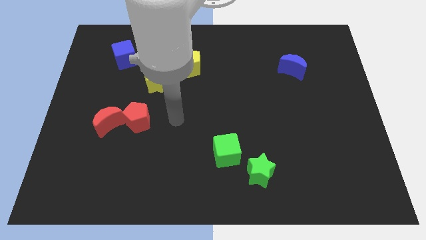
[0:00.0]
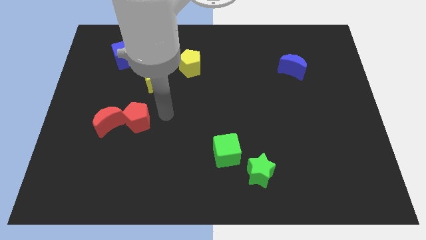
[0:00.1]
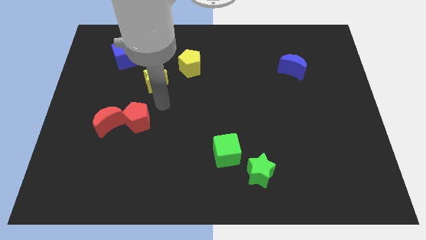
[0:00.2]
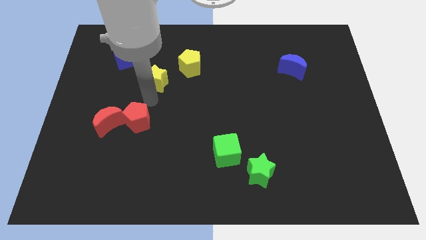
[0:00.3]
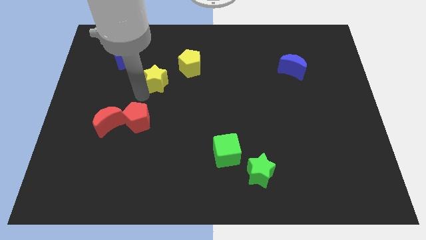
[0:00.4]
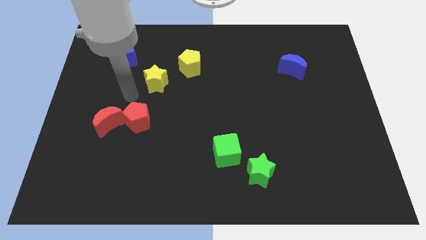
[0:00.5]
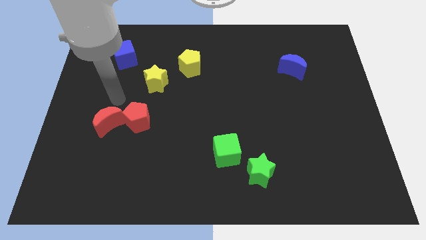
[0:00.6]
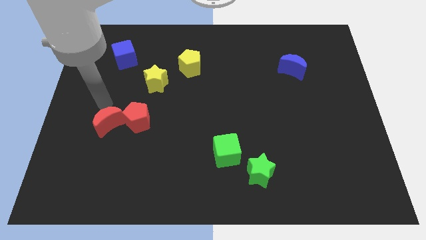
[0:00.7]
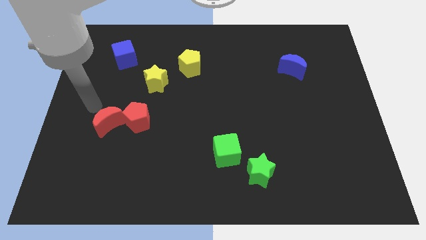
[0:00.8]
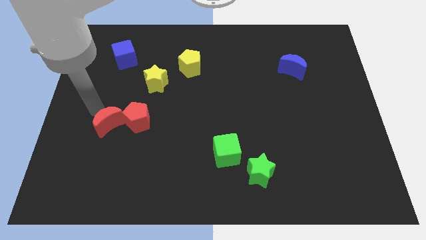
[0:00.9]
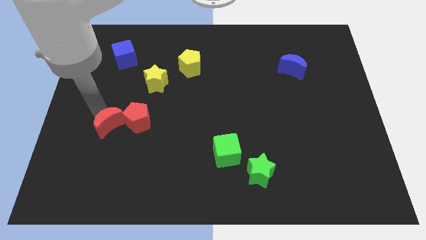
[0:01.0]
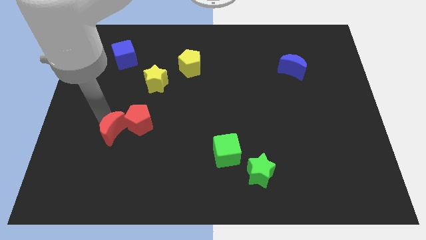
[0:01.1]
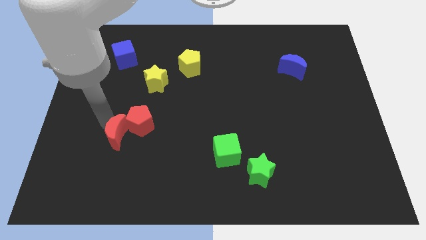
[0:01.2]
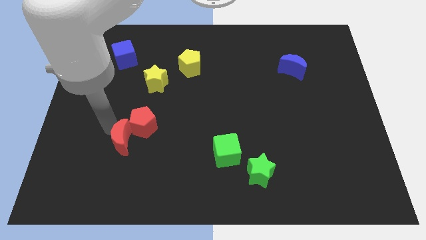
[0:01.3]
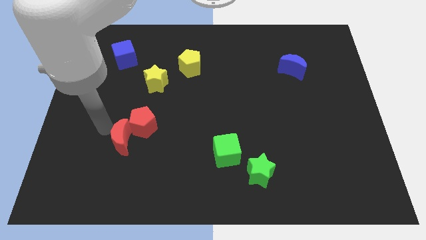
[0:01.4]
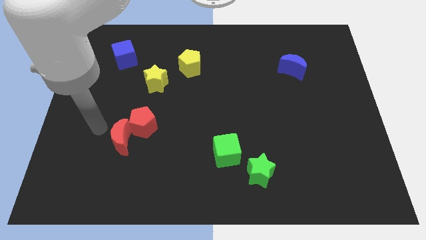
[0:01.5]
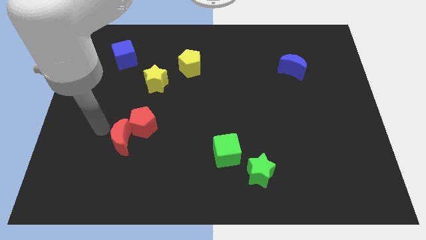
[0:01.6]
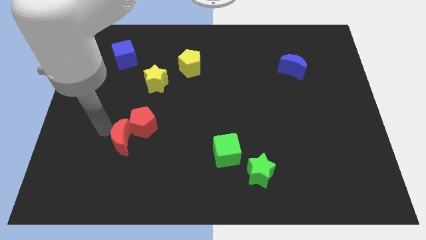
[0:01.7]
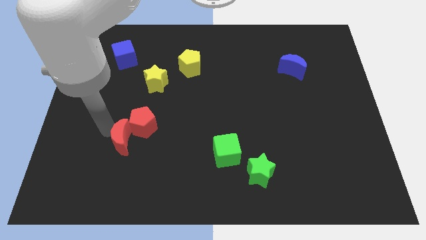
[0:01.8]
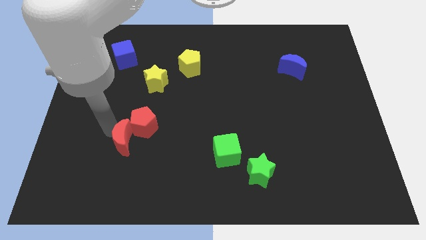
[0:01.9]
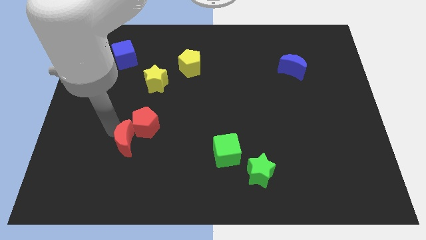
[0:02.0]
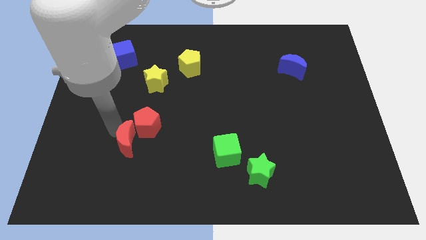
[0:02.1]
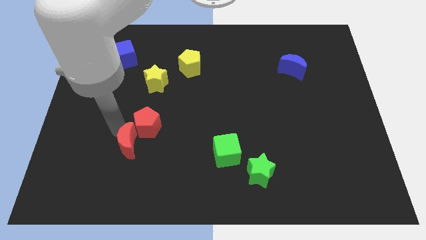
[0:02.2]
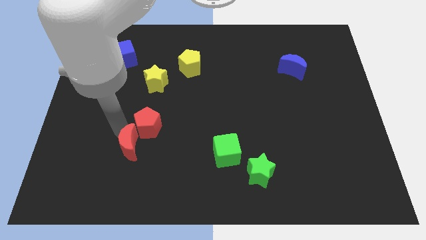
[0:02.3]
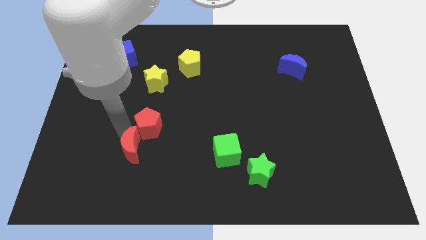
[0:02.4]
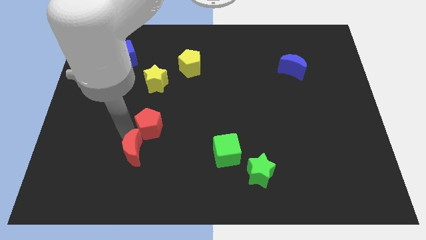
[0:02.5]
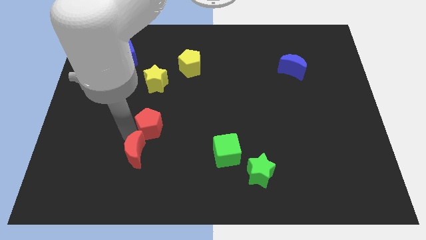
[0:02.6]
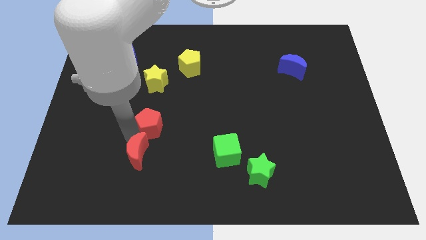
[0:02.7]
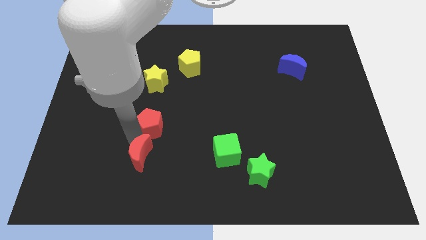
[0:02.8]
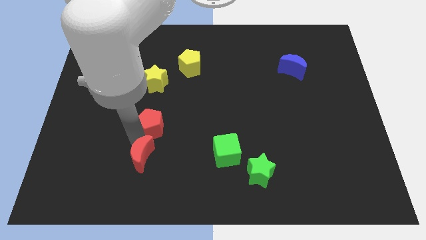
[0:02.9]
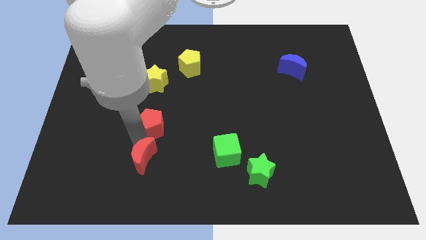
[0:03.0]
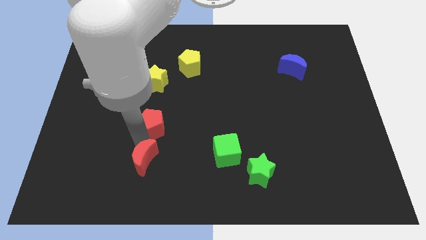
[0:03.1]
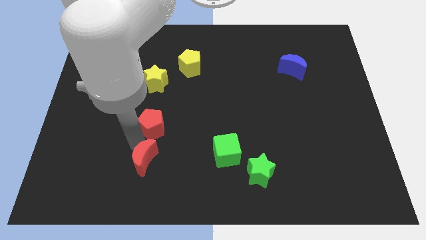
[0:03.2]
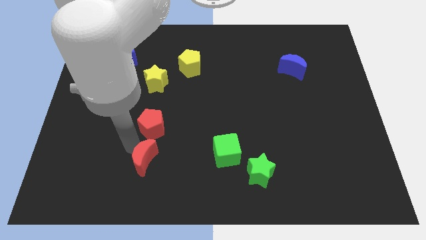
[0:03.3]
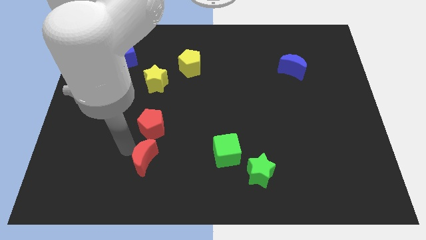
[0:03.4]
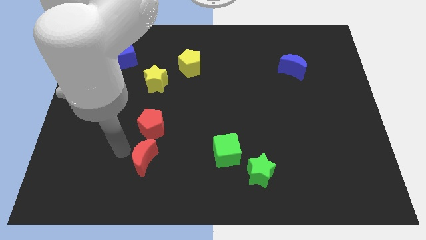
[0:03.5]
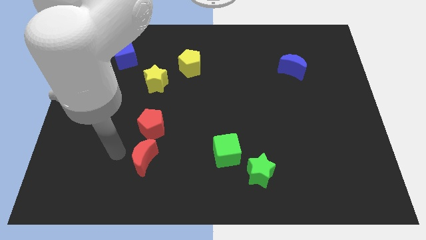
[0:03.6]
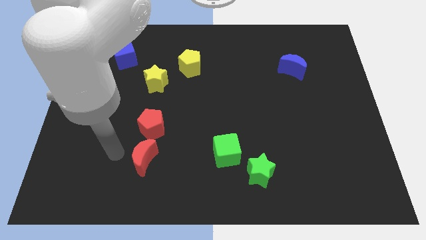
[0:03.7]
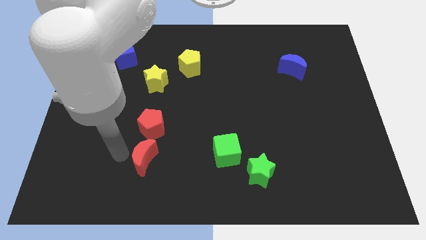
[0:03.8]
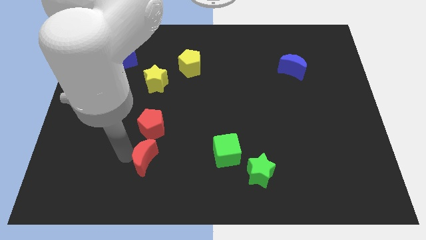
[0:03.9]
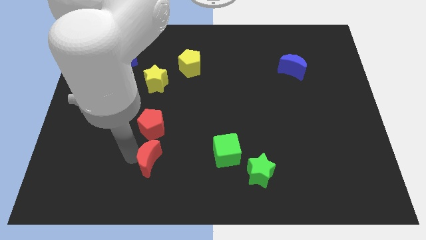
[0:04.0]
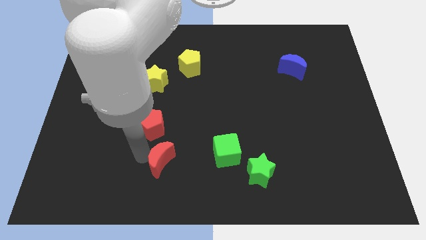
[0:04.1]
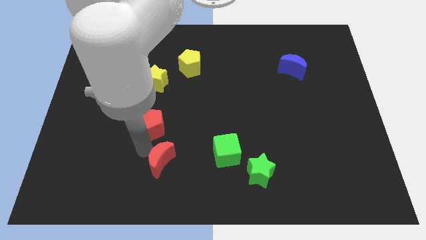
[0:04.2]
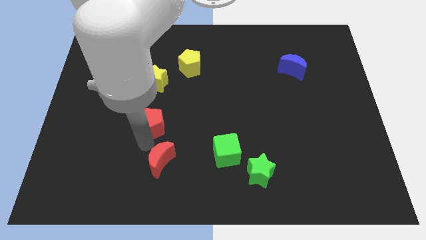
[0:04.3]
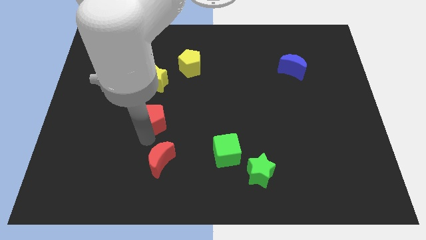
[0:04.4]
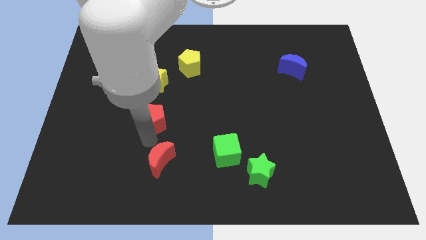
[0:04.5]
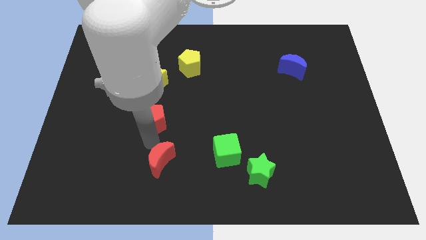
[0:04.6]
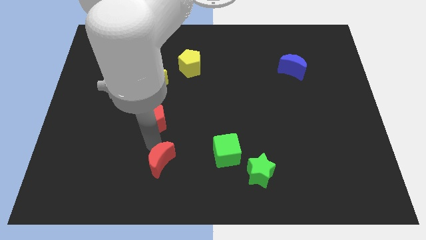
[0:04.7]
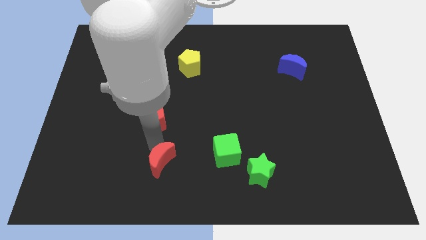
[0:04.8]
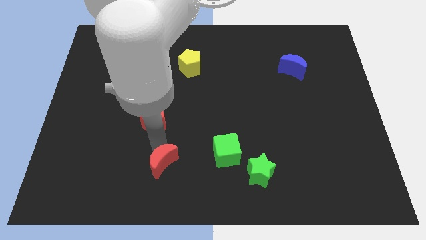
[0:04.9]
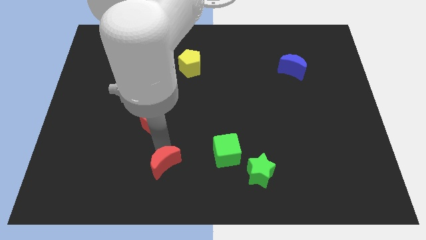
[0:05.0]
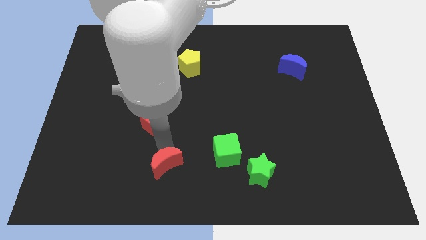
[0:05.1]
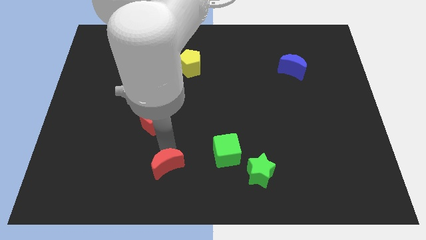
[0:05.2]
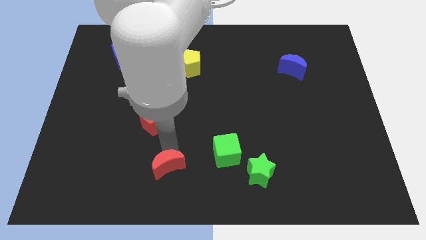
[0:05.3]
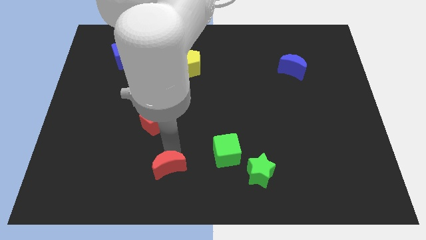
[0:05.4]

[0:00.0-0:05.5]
push the red moon to the bottom side

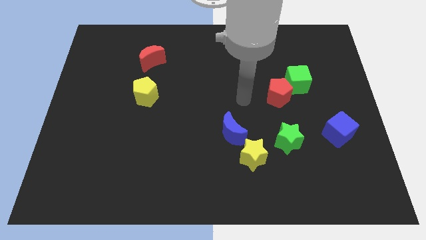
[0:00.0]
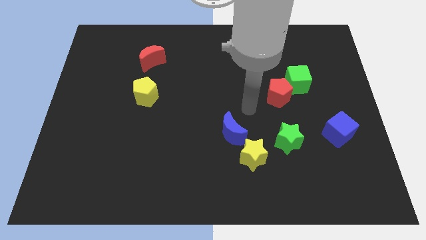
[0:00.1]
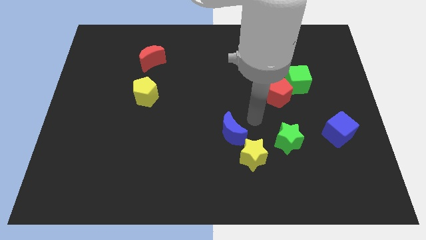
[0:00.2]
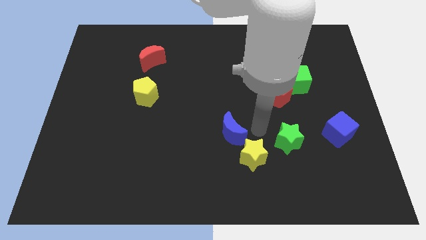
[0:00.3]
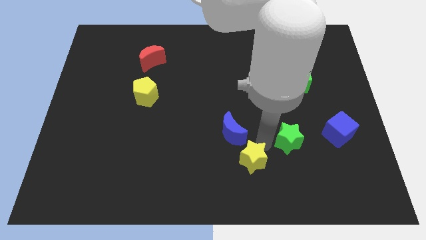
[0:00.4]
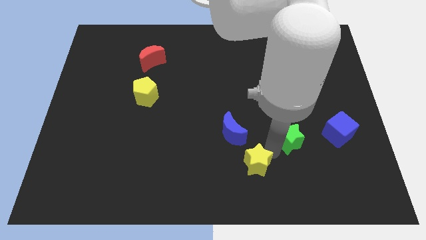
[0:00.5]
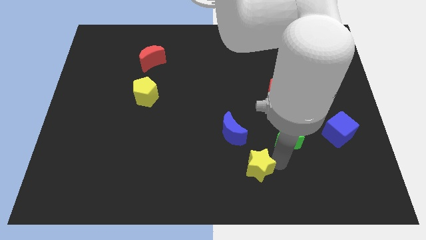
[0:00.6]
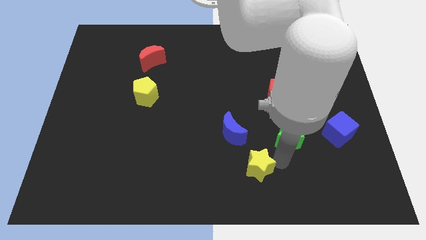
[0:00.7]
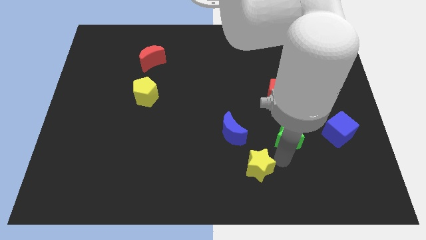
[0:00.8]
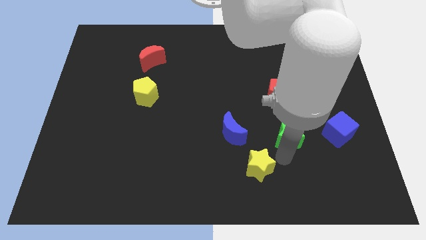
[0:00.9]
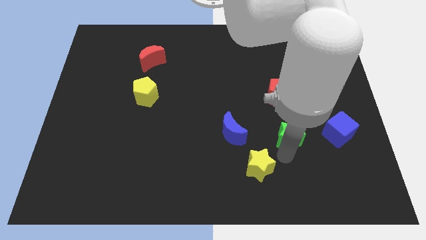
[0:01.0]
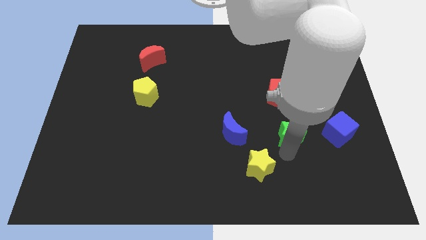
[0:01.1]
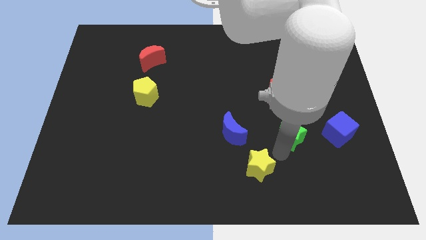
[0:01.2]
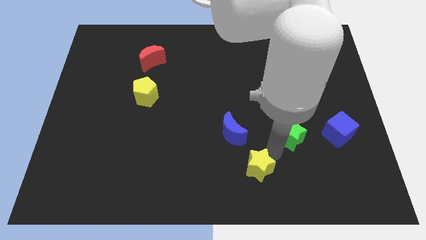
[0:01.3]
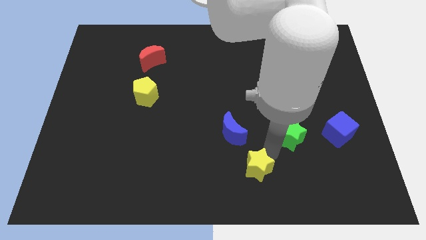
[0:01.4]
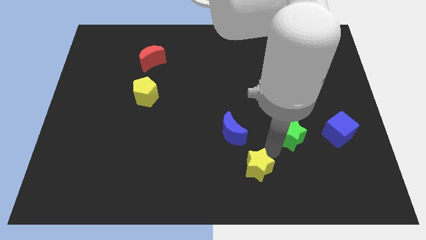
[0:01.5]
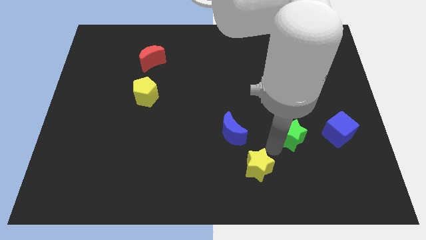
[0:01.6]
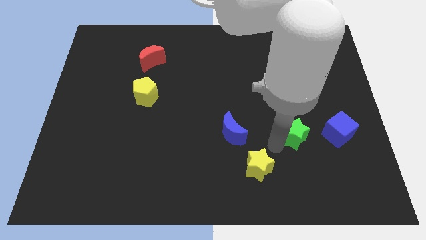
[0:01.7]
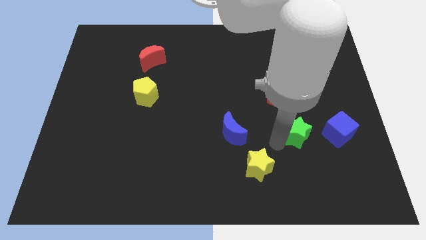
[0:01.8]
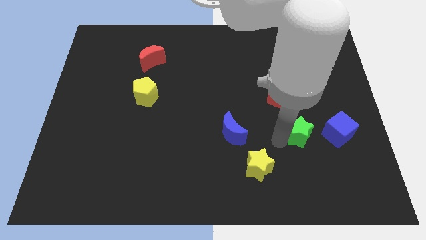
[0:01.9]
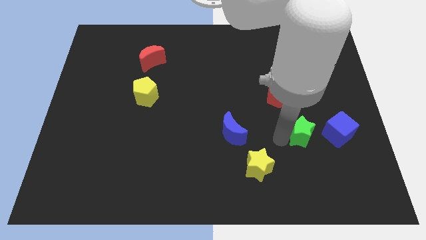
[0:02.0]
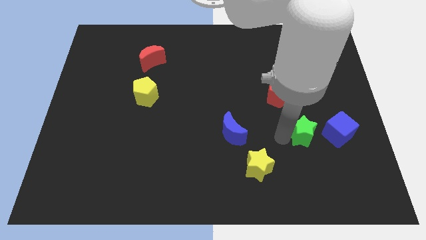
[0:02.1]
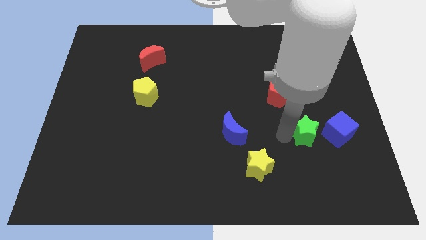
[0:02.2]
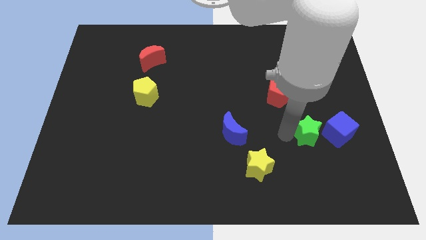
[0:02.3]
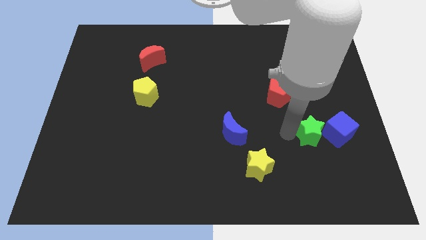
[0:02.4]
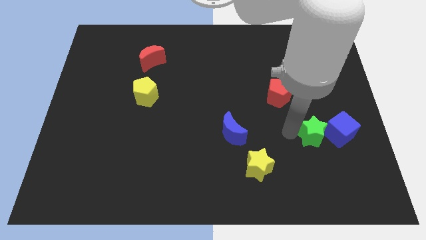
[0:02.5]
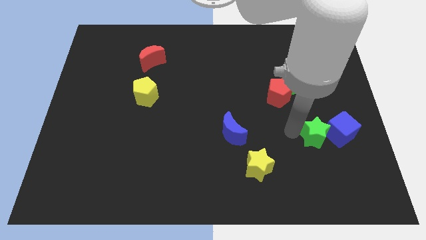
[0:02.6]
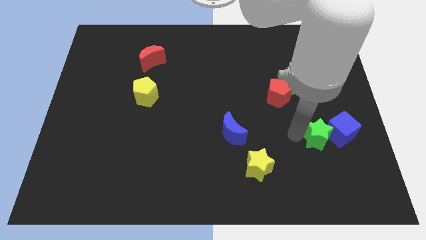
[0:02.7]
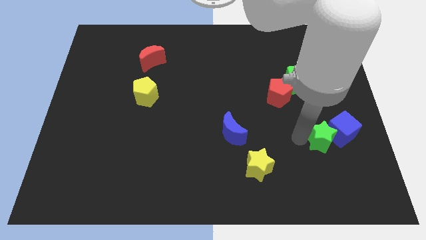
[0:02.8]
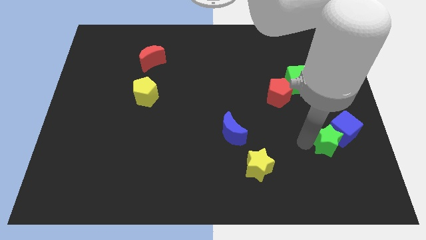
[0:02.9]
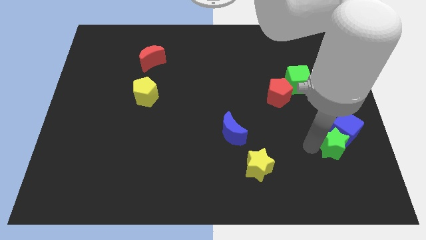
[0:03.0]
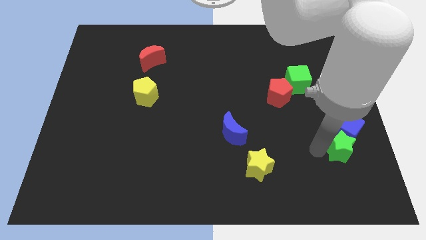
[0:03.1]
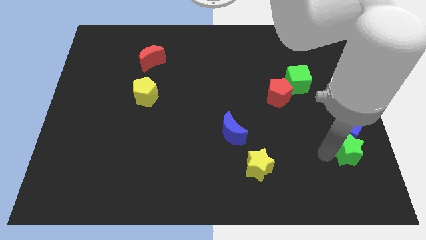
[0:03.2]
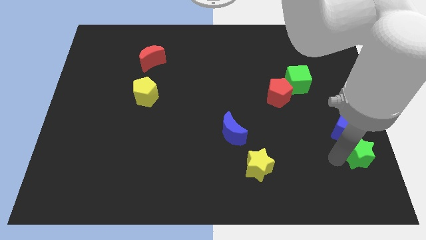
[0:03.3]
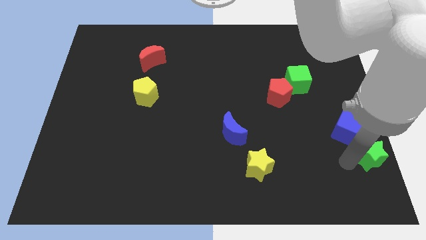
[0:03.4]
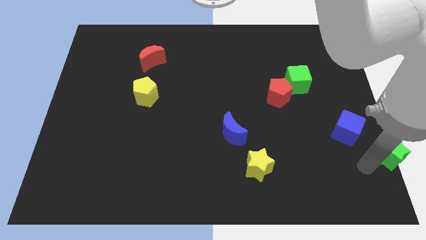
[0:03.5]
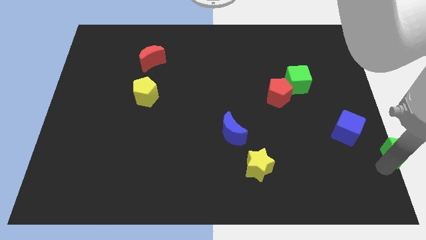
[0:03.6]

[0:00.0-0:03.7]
slide the green star to the center right
